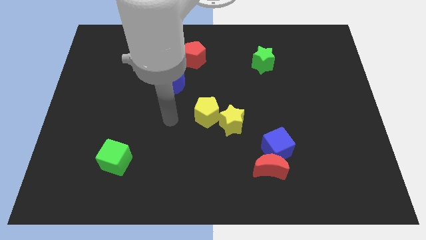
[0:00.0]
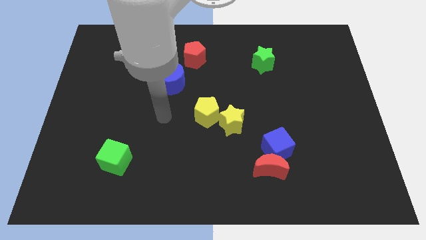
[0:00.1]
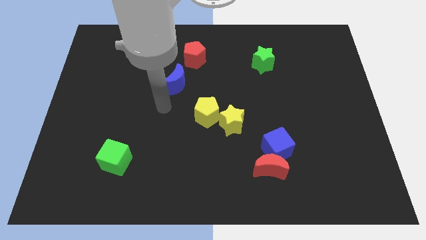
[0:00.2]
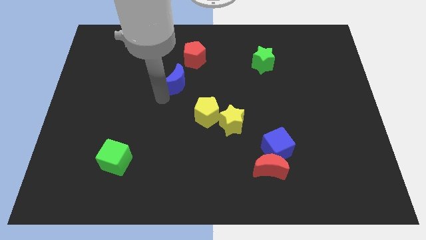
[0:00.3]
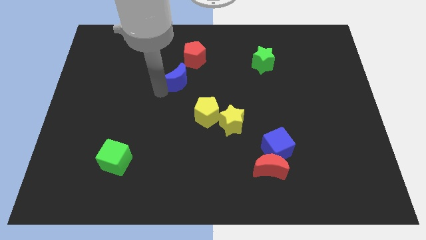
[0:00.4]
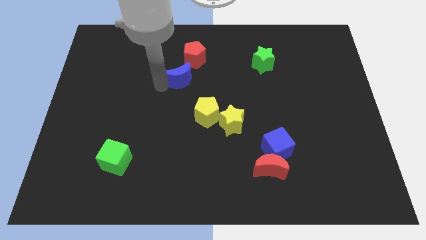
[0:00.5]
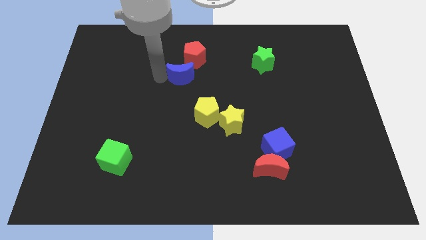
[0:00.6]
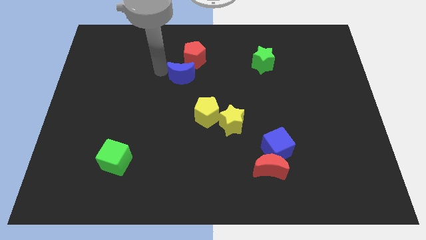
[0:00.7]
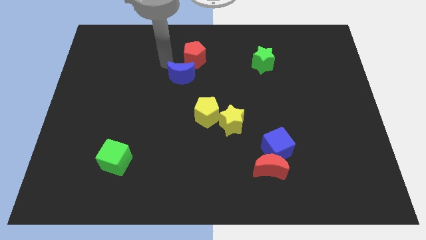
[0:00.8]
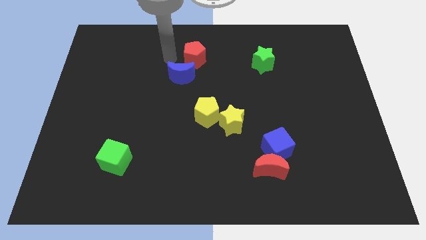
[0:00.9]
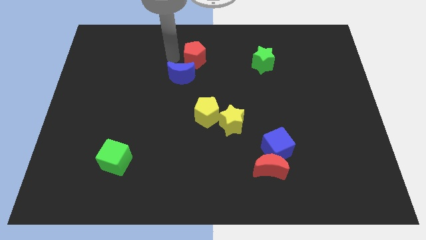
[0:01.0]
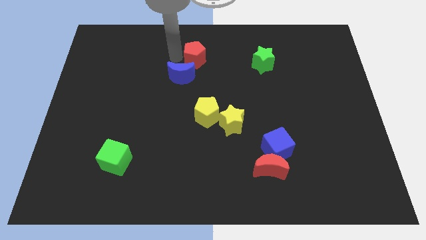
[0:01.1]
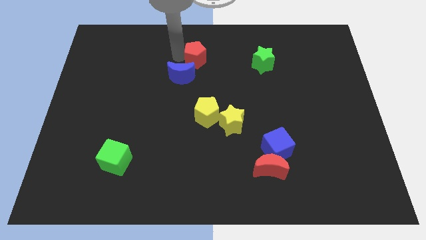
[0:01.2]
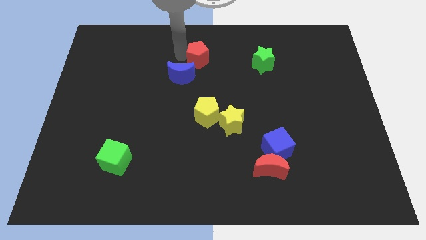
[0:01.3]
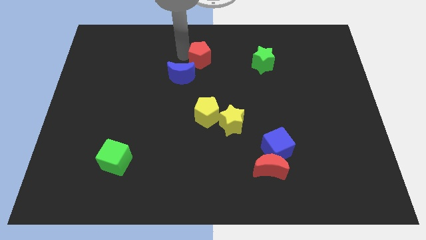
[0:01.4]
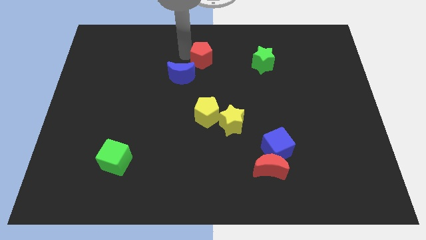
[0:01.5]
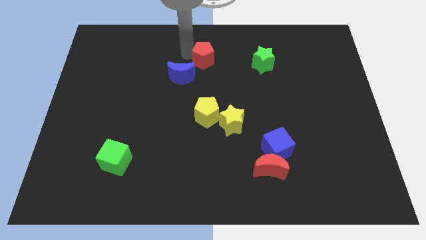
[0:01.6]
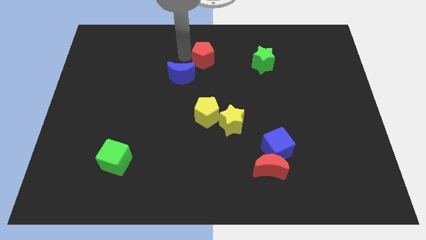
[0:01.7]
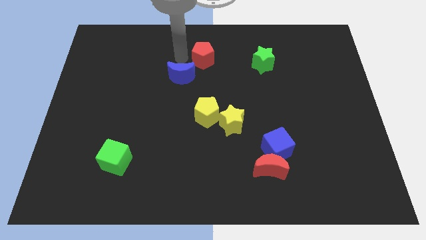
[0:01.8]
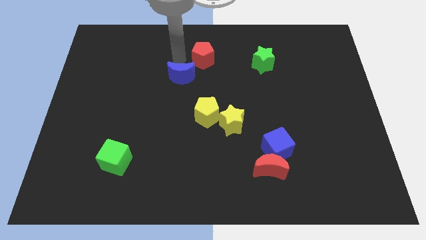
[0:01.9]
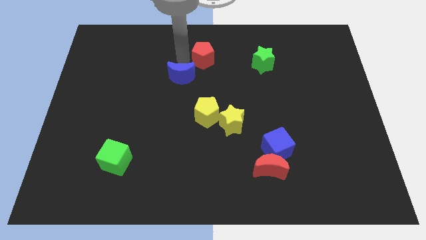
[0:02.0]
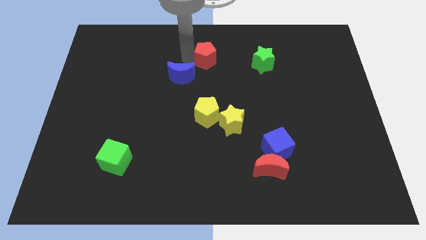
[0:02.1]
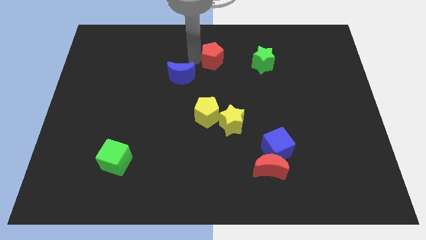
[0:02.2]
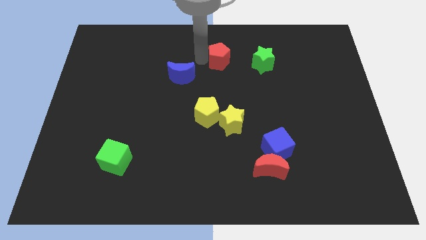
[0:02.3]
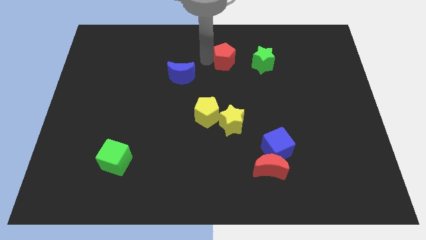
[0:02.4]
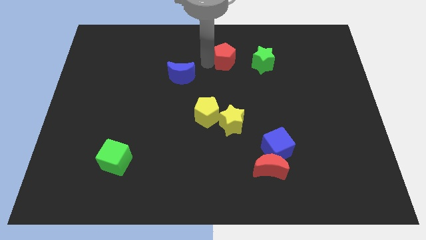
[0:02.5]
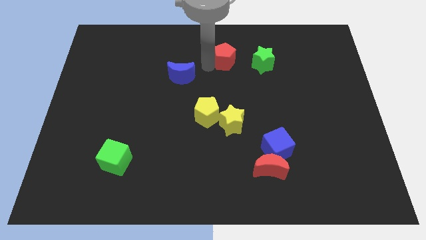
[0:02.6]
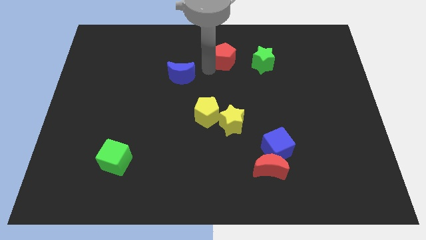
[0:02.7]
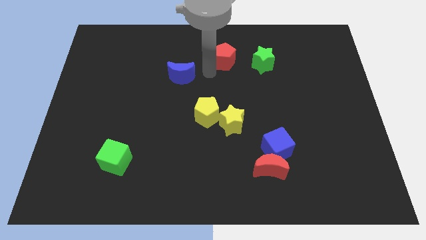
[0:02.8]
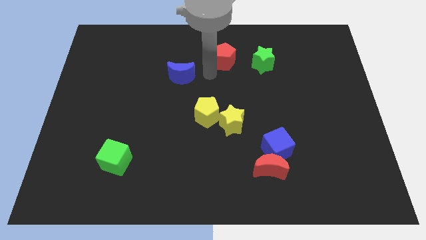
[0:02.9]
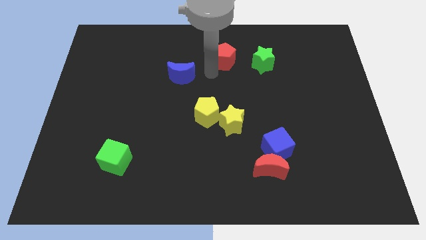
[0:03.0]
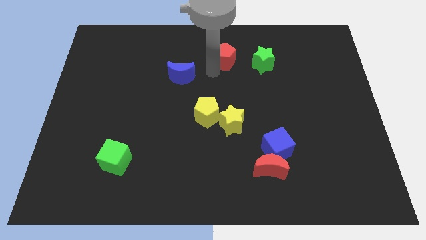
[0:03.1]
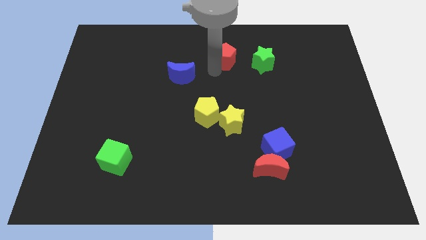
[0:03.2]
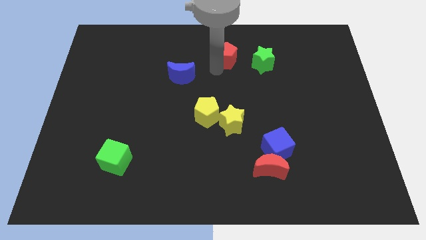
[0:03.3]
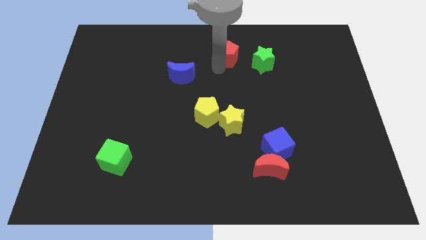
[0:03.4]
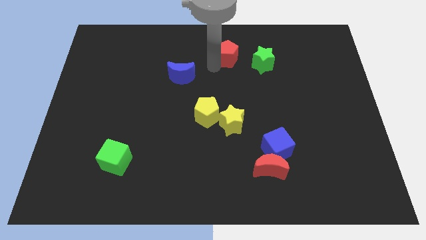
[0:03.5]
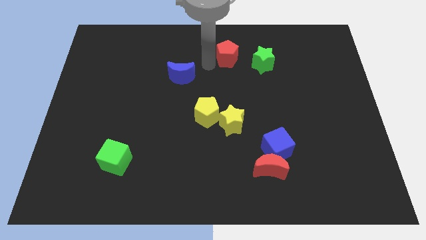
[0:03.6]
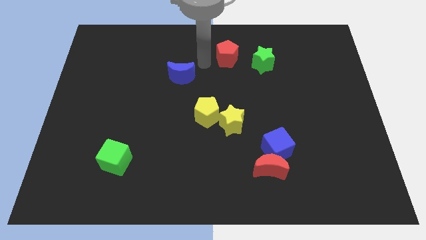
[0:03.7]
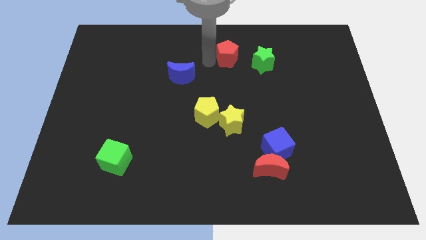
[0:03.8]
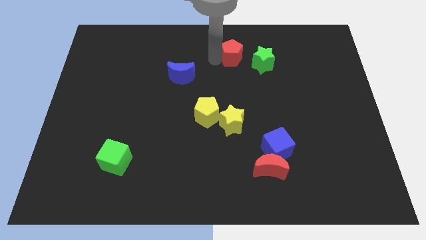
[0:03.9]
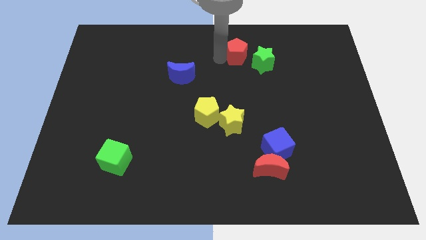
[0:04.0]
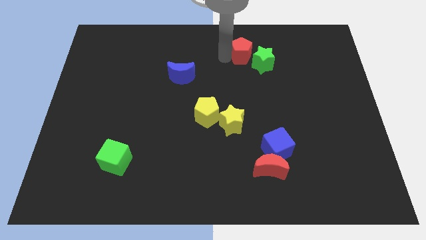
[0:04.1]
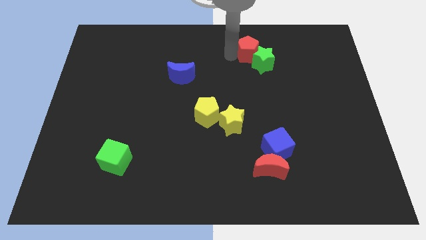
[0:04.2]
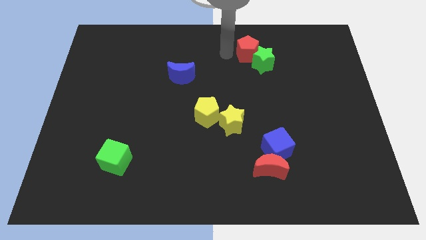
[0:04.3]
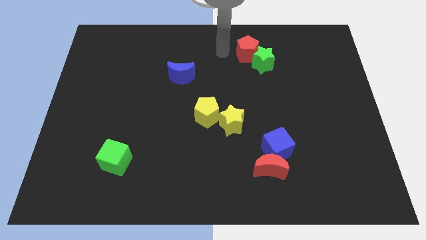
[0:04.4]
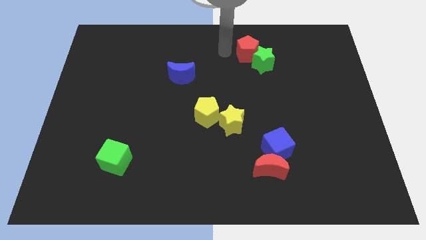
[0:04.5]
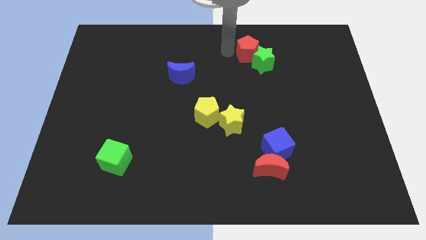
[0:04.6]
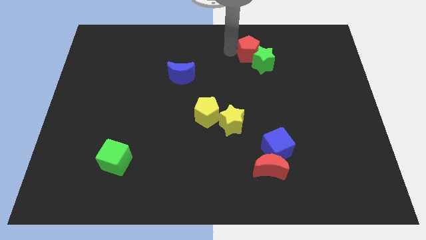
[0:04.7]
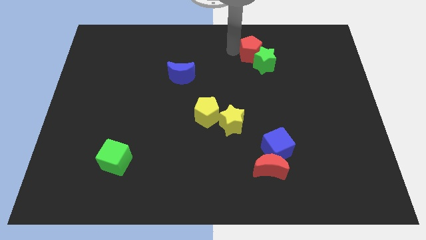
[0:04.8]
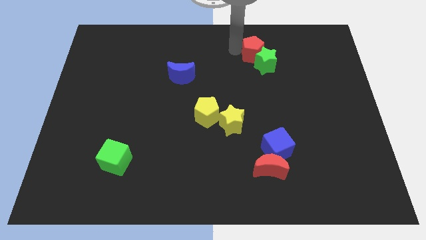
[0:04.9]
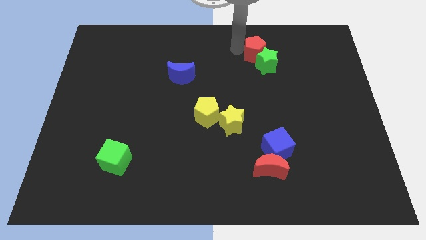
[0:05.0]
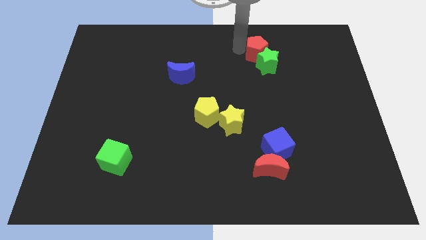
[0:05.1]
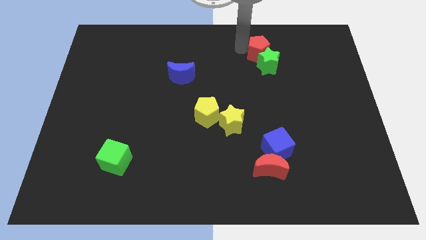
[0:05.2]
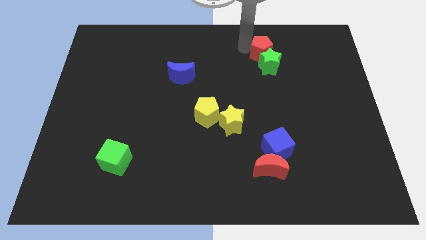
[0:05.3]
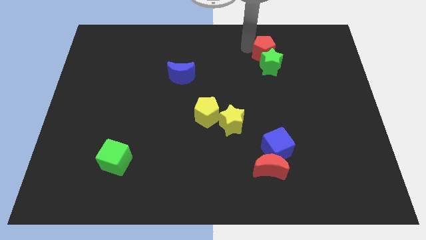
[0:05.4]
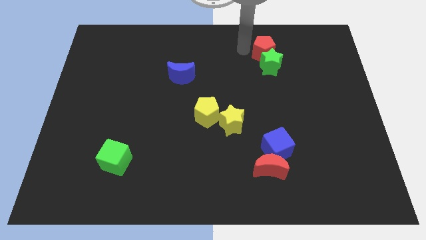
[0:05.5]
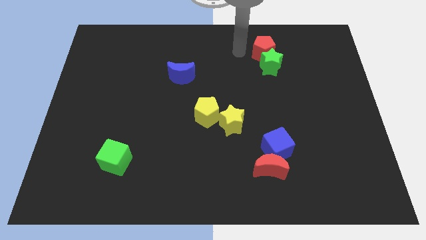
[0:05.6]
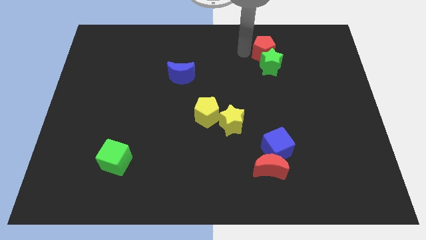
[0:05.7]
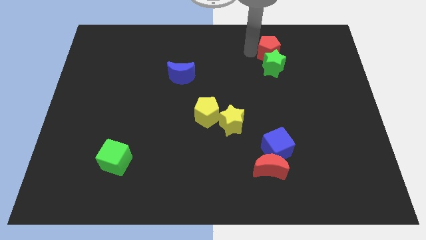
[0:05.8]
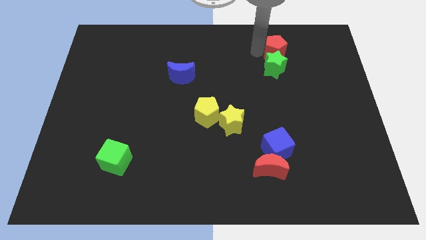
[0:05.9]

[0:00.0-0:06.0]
push the red pentagon to the right

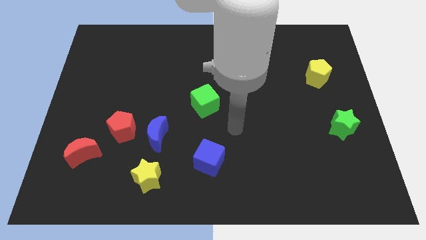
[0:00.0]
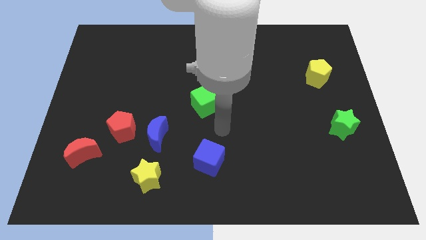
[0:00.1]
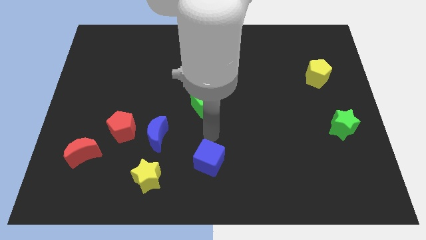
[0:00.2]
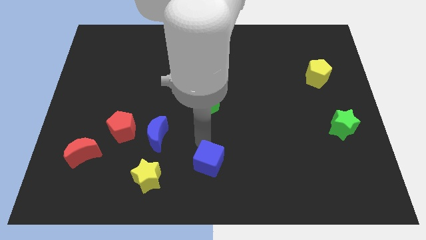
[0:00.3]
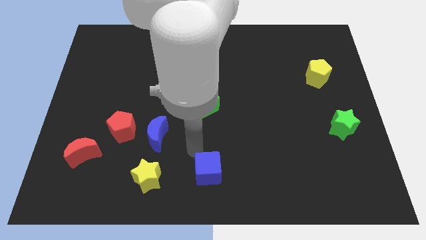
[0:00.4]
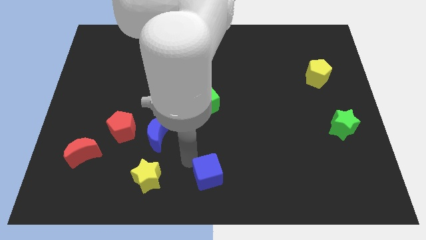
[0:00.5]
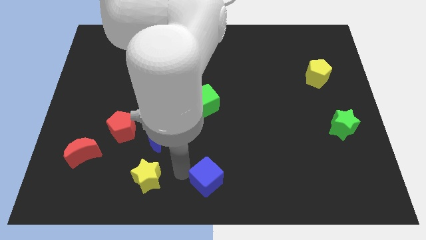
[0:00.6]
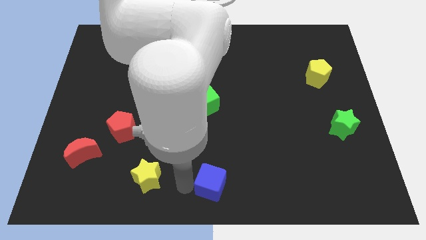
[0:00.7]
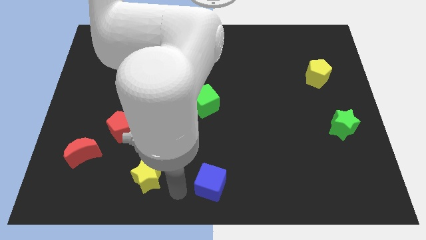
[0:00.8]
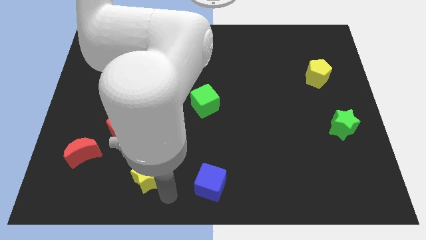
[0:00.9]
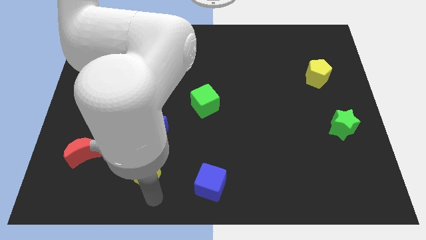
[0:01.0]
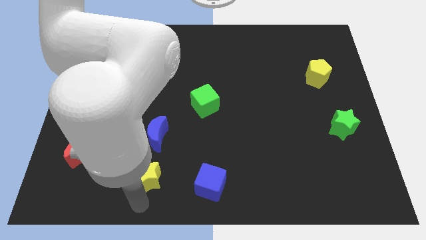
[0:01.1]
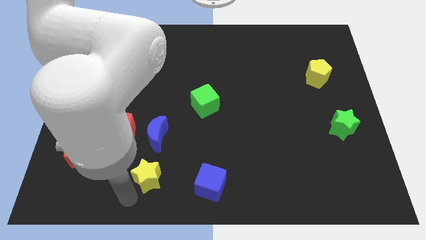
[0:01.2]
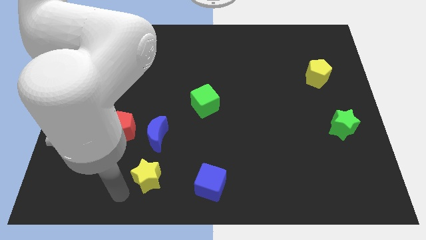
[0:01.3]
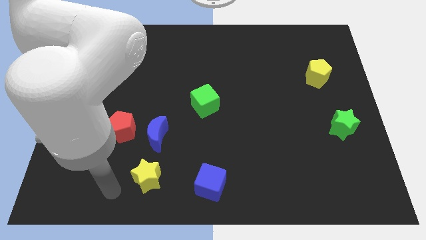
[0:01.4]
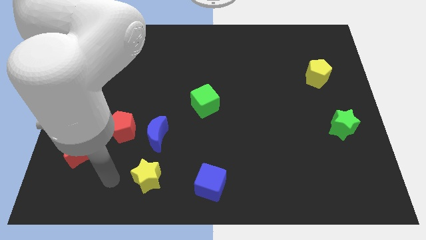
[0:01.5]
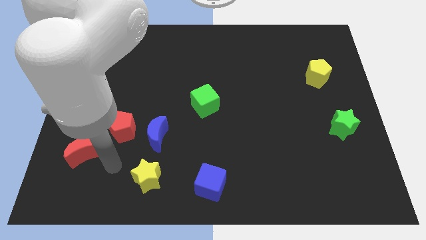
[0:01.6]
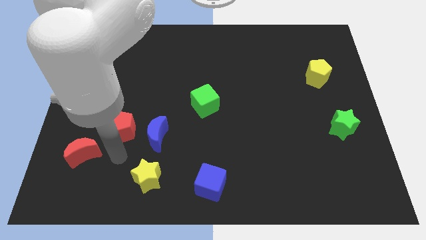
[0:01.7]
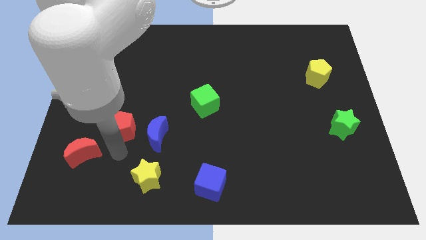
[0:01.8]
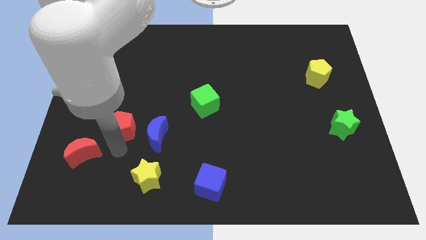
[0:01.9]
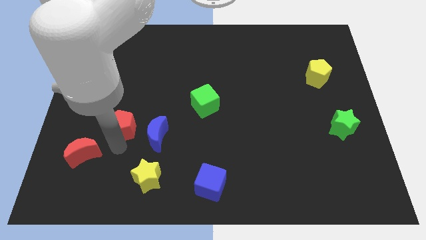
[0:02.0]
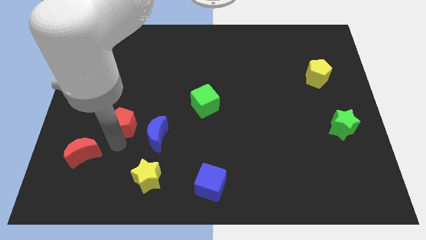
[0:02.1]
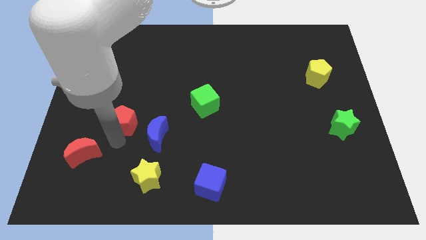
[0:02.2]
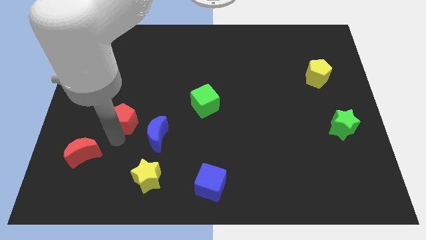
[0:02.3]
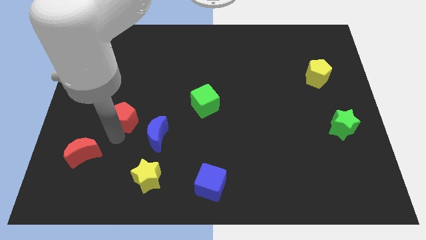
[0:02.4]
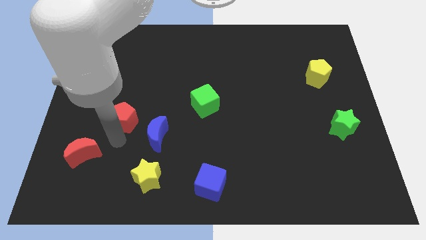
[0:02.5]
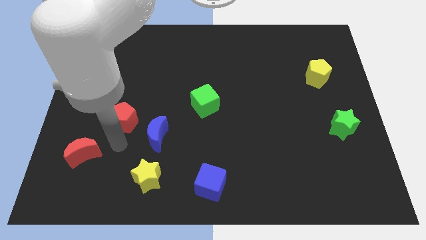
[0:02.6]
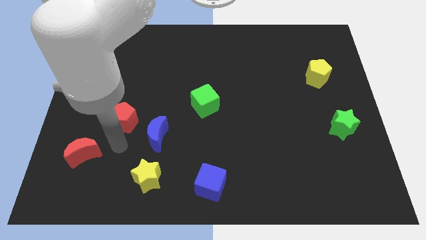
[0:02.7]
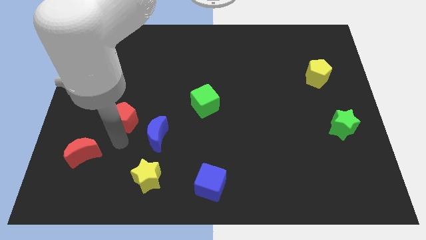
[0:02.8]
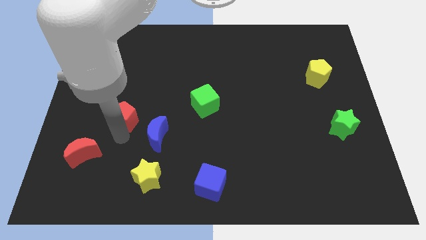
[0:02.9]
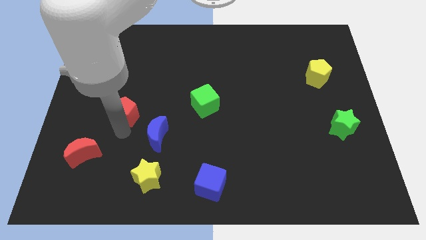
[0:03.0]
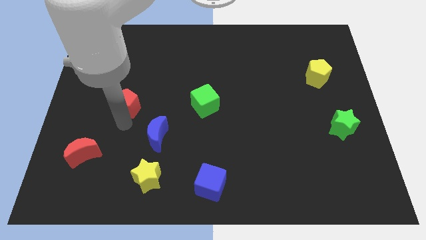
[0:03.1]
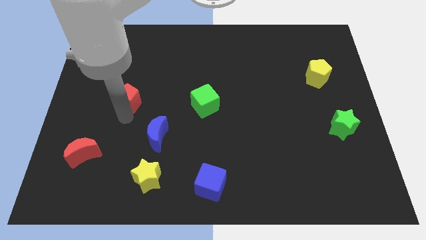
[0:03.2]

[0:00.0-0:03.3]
slightly slide the red pentagon up
